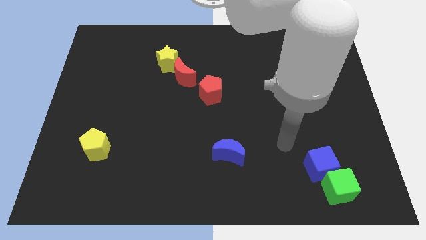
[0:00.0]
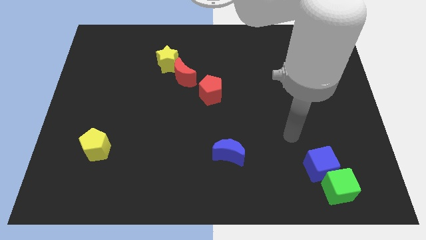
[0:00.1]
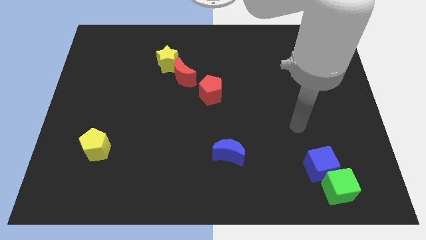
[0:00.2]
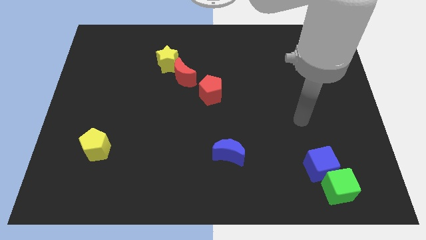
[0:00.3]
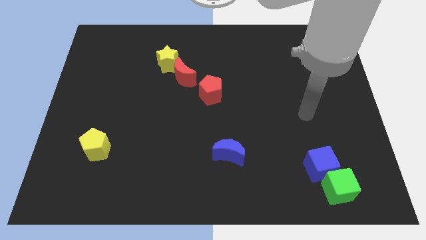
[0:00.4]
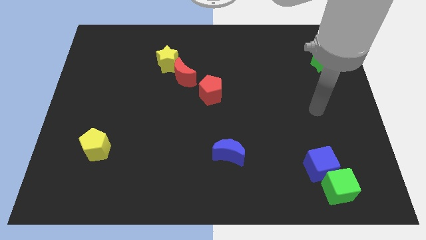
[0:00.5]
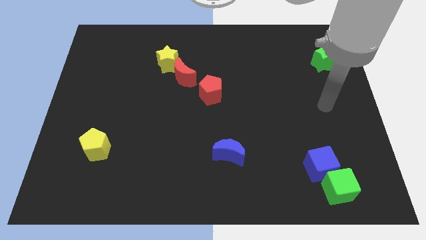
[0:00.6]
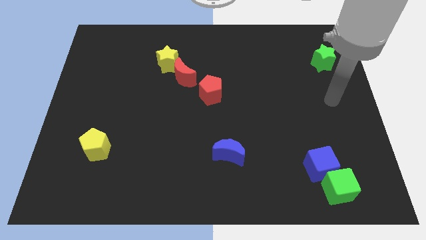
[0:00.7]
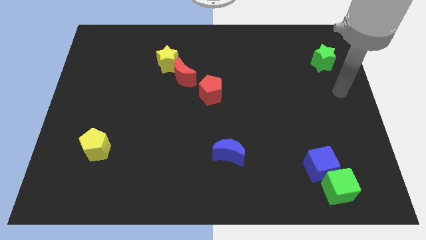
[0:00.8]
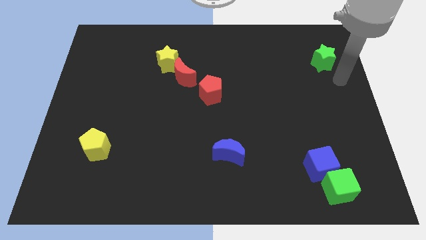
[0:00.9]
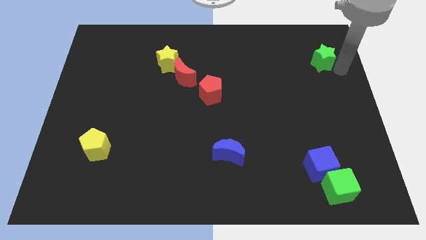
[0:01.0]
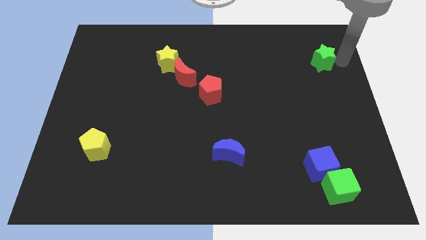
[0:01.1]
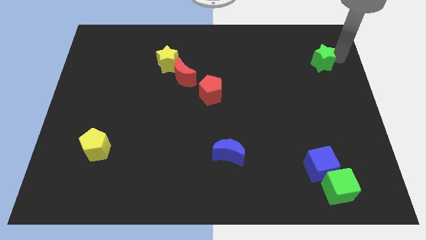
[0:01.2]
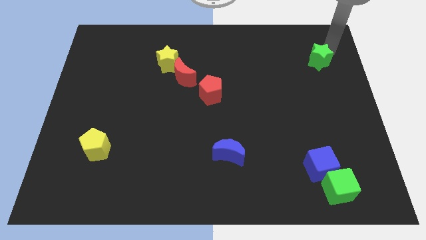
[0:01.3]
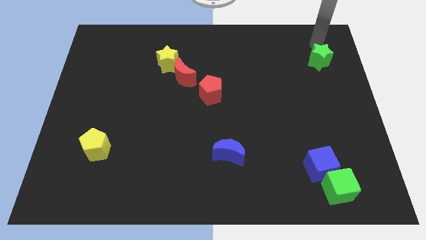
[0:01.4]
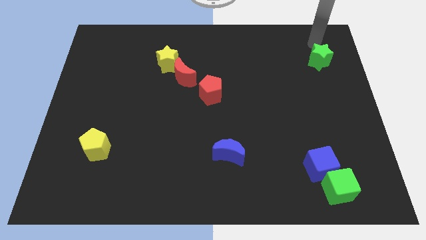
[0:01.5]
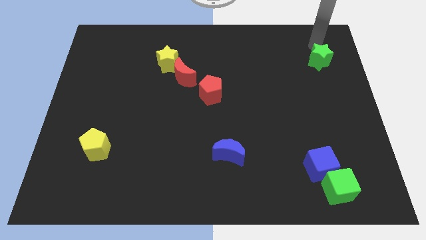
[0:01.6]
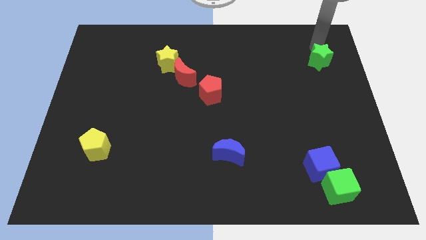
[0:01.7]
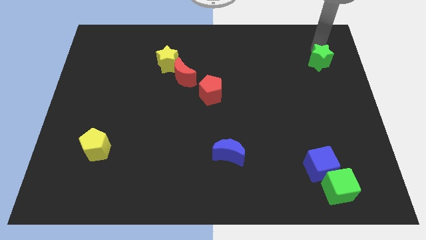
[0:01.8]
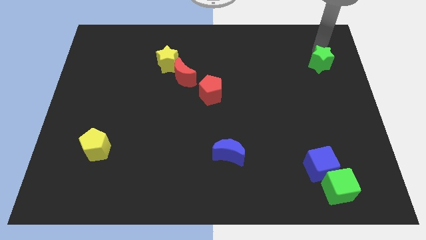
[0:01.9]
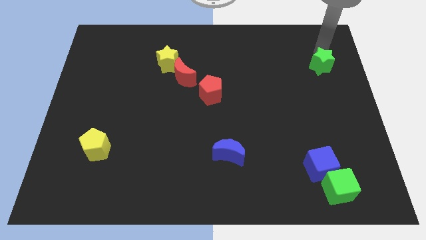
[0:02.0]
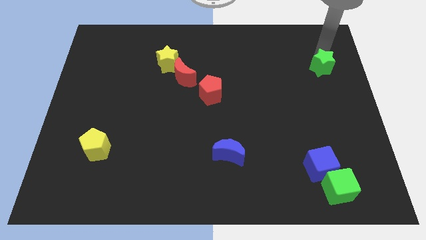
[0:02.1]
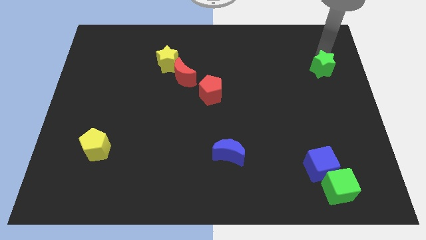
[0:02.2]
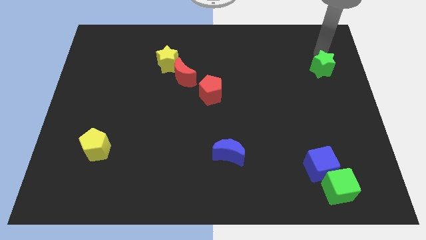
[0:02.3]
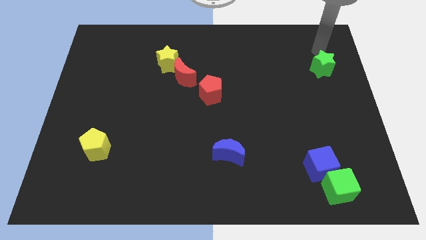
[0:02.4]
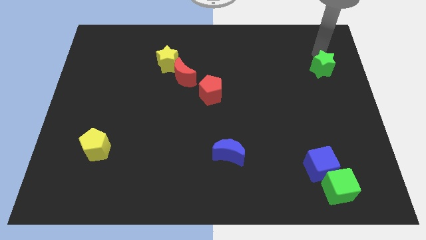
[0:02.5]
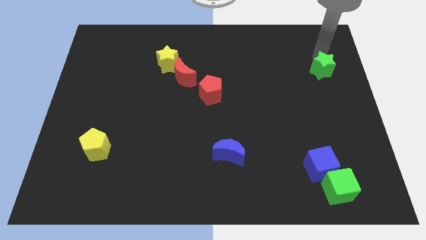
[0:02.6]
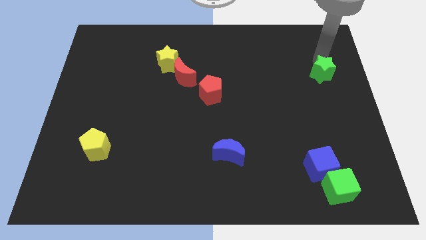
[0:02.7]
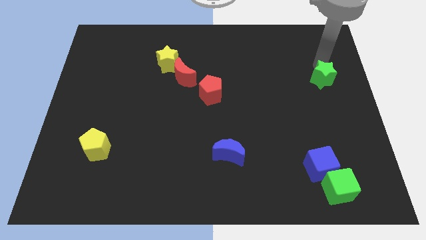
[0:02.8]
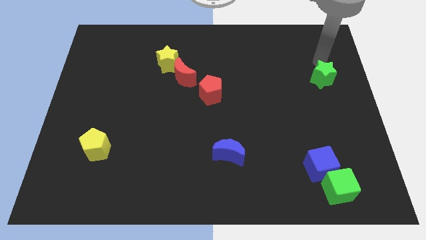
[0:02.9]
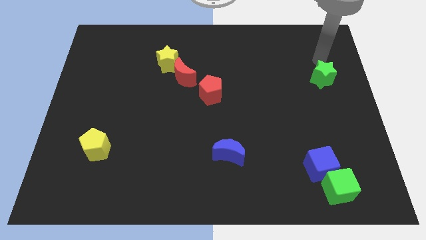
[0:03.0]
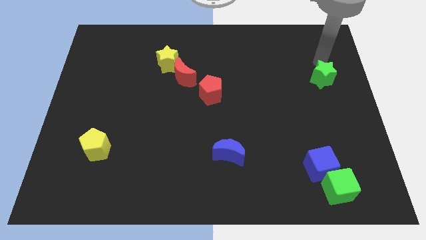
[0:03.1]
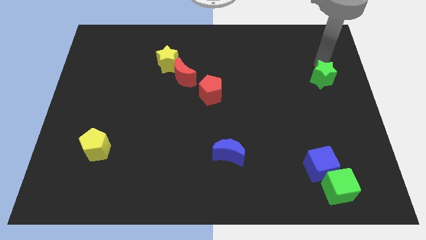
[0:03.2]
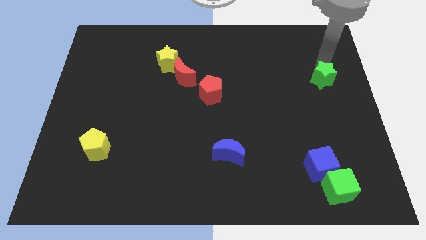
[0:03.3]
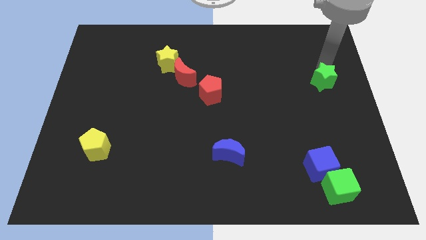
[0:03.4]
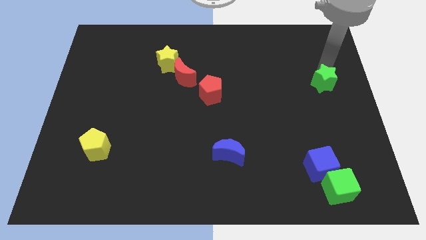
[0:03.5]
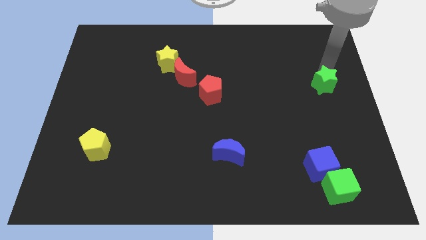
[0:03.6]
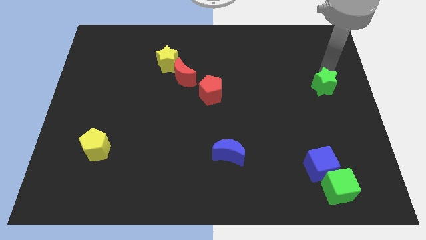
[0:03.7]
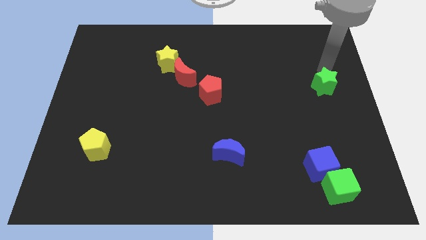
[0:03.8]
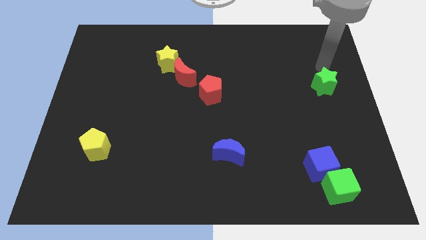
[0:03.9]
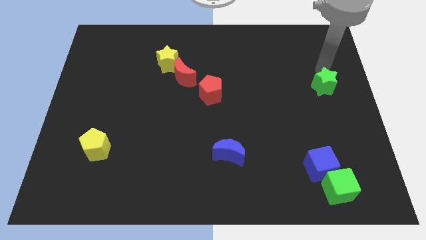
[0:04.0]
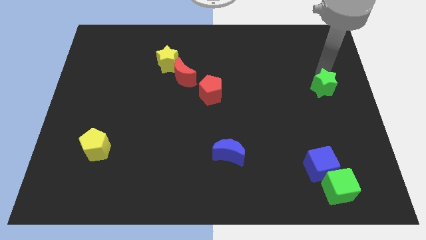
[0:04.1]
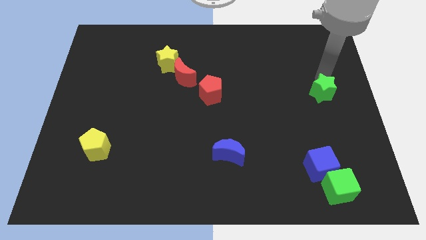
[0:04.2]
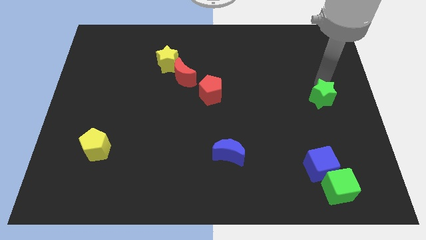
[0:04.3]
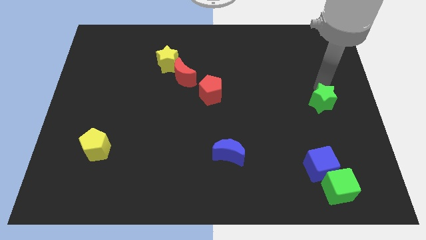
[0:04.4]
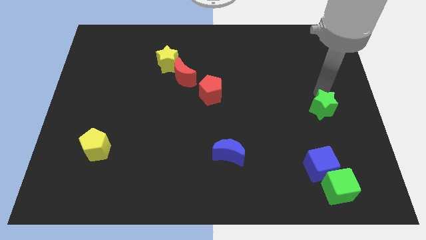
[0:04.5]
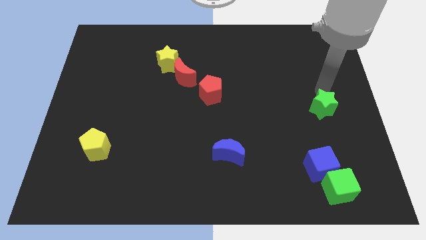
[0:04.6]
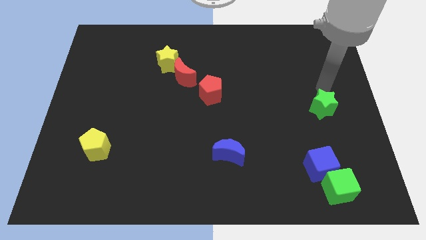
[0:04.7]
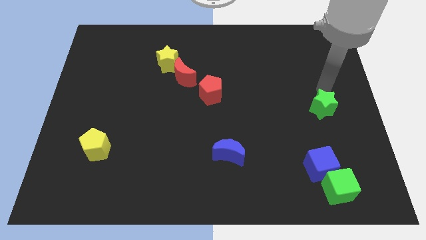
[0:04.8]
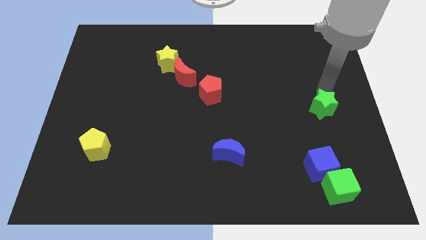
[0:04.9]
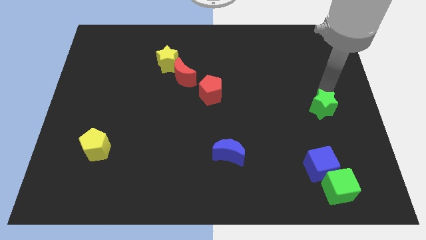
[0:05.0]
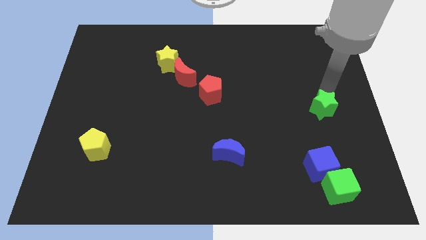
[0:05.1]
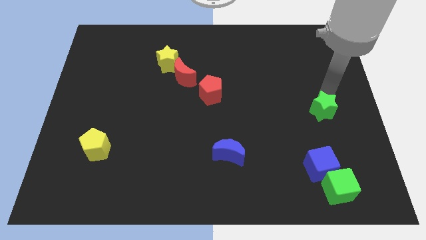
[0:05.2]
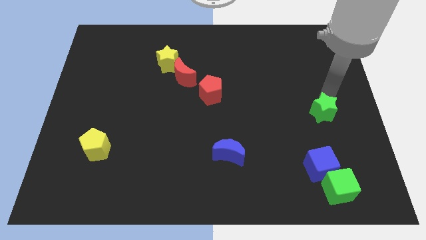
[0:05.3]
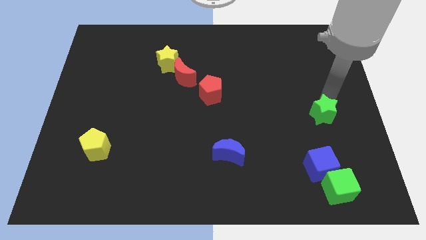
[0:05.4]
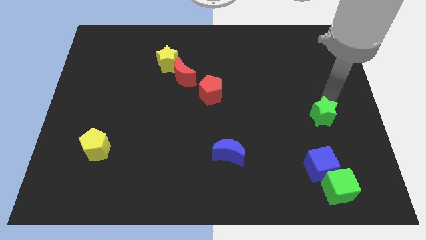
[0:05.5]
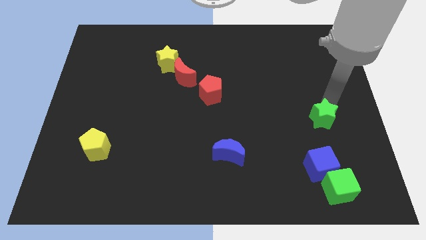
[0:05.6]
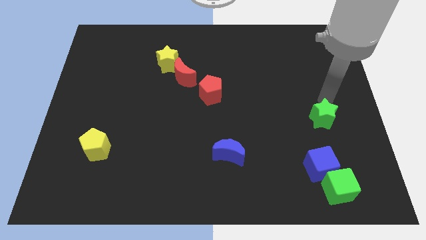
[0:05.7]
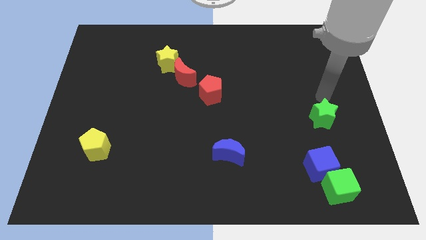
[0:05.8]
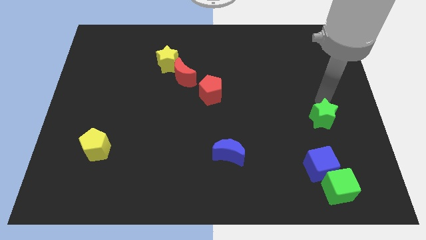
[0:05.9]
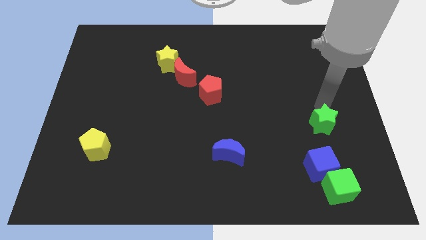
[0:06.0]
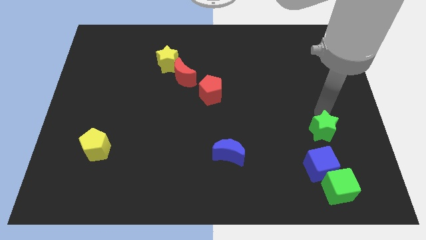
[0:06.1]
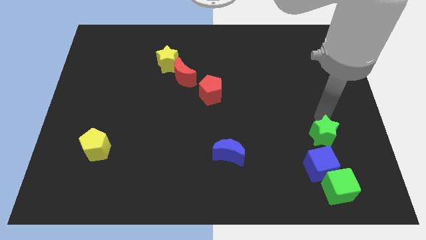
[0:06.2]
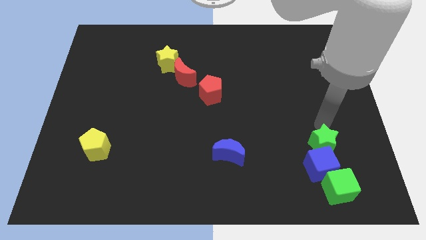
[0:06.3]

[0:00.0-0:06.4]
push the green star next to the blue cube
